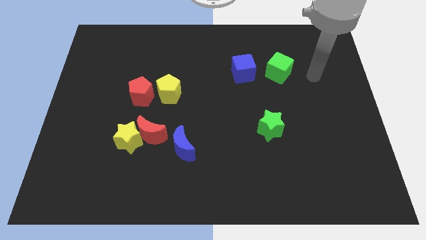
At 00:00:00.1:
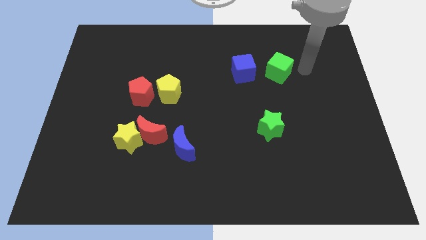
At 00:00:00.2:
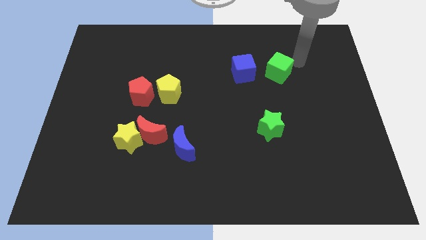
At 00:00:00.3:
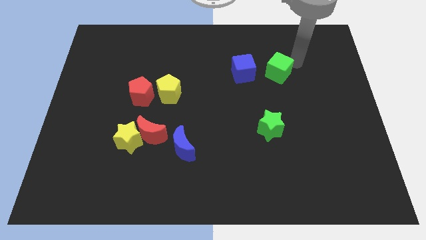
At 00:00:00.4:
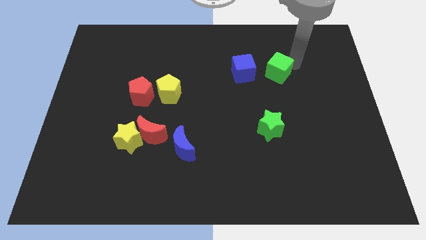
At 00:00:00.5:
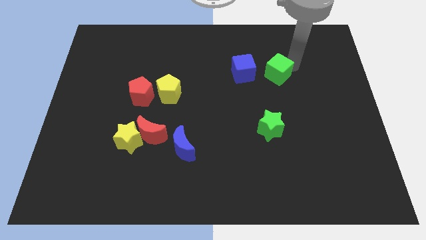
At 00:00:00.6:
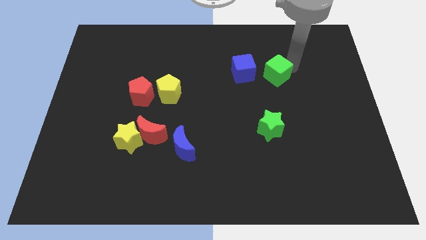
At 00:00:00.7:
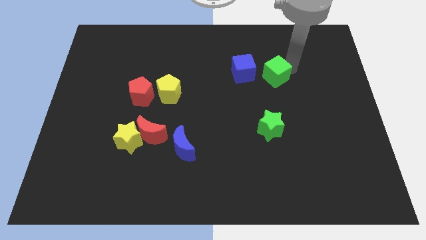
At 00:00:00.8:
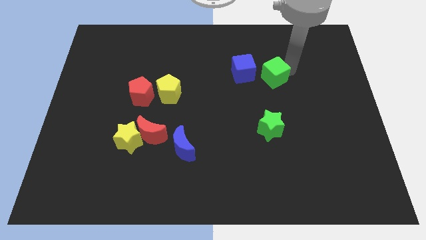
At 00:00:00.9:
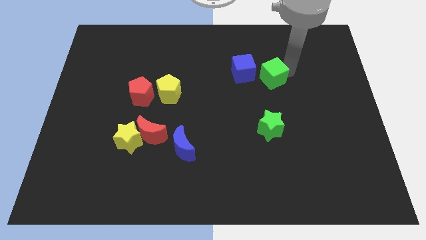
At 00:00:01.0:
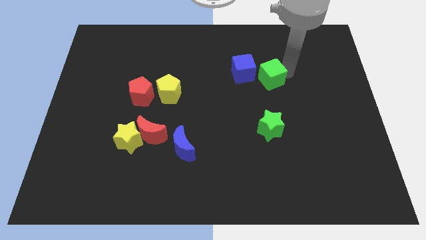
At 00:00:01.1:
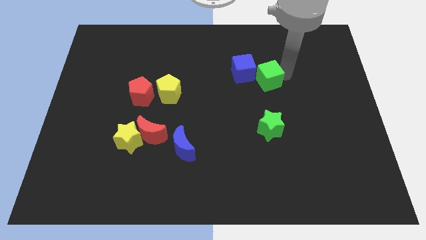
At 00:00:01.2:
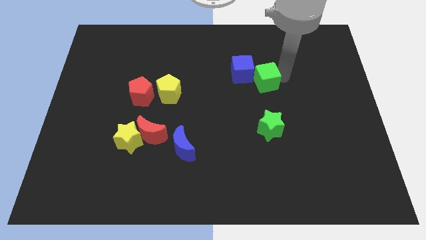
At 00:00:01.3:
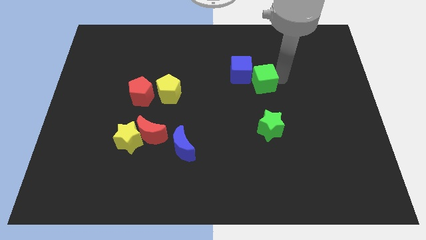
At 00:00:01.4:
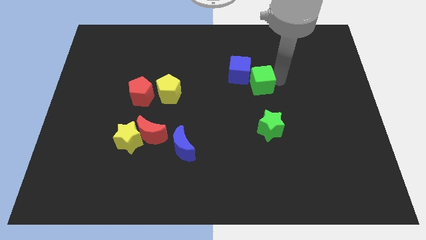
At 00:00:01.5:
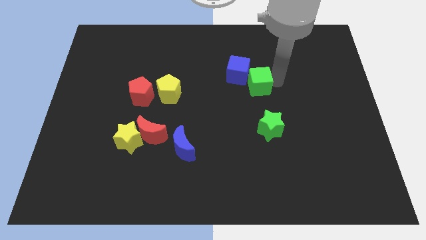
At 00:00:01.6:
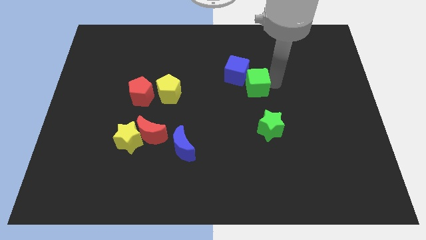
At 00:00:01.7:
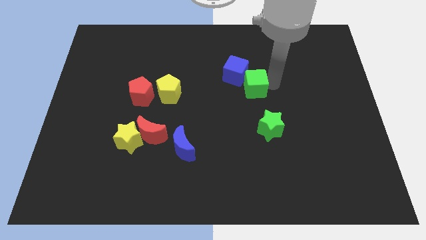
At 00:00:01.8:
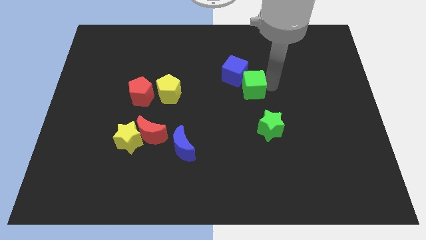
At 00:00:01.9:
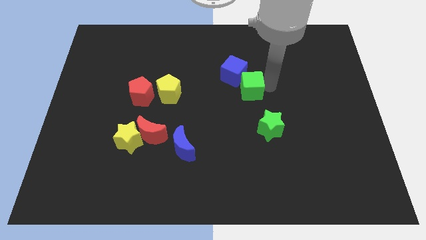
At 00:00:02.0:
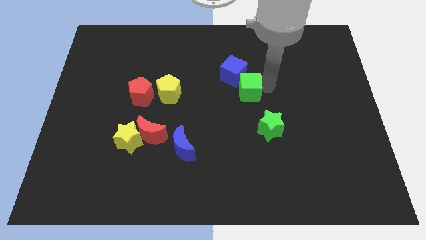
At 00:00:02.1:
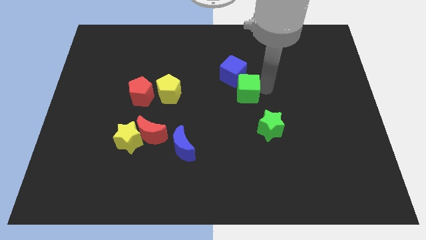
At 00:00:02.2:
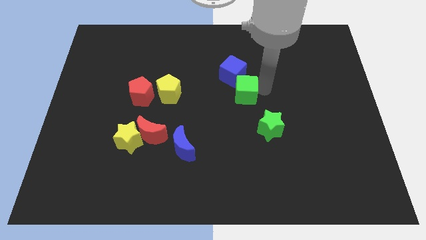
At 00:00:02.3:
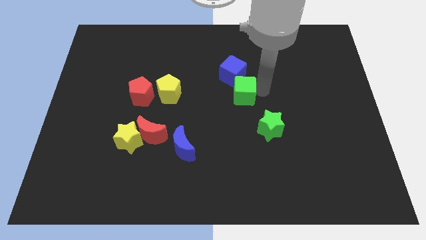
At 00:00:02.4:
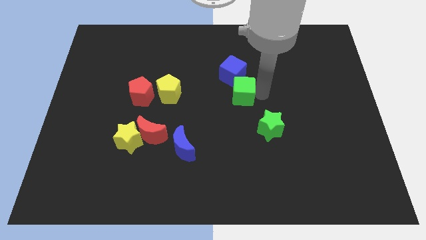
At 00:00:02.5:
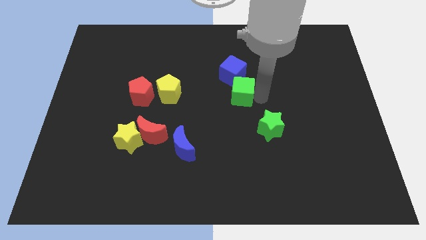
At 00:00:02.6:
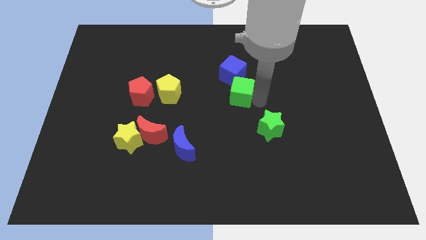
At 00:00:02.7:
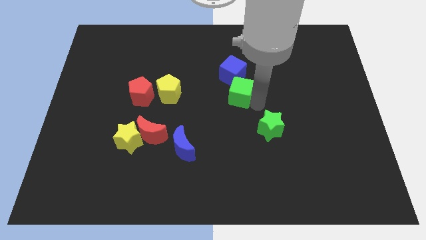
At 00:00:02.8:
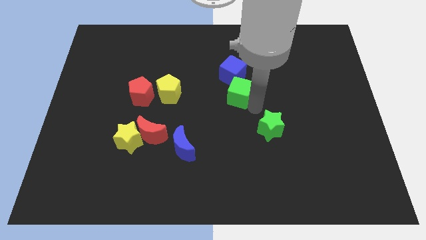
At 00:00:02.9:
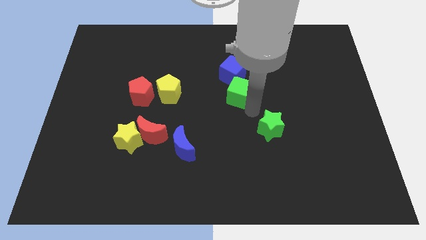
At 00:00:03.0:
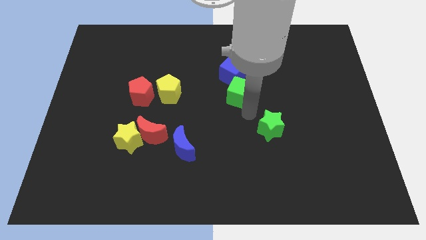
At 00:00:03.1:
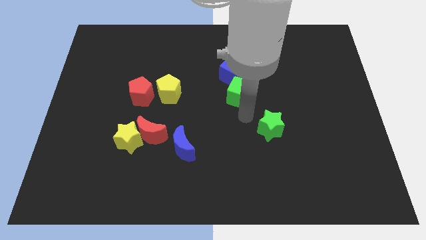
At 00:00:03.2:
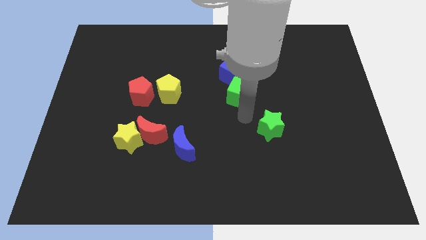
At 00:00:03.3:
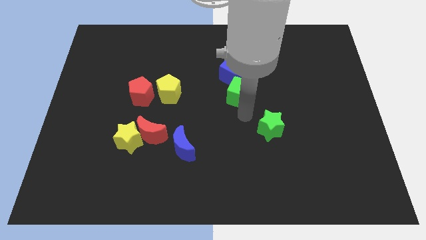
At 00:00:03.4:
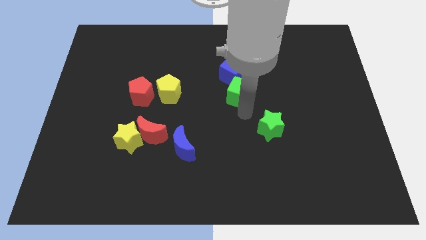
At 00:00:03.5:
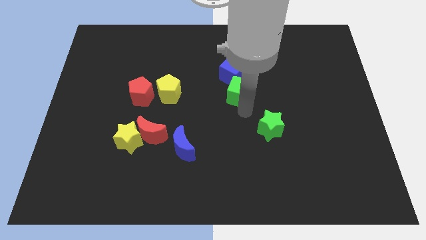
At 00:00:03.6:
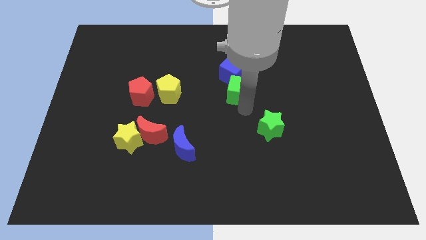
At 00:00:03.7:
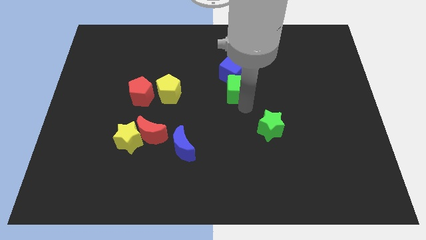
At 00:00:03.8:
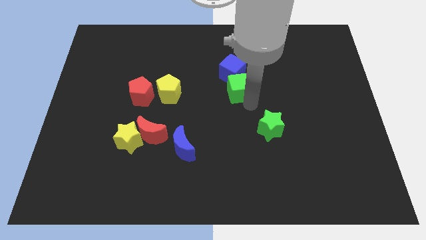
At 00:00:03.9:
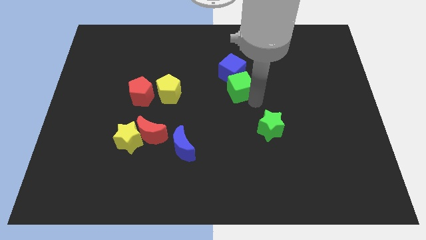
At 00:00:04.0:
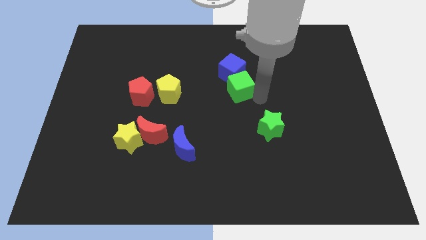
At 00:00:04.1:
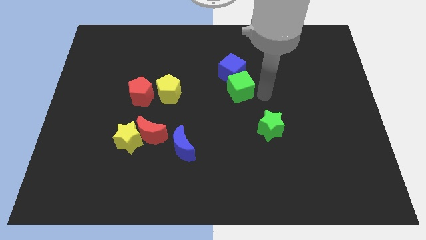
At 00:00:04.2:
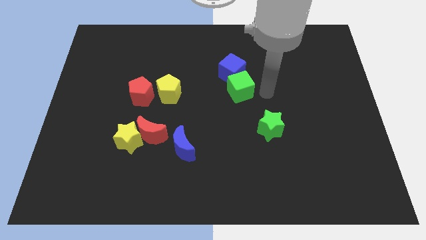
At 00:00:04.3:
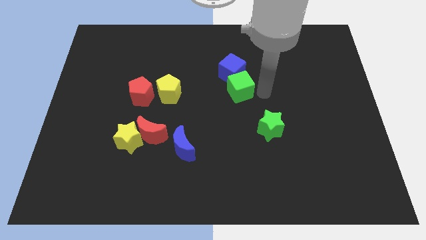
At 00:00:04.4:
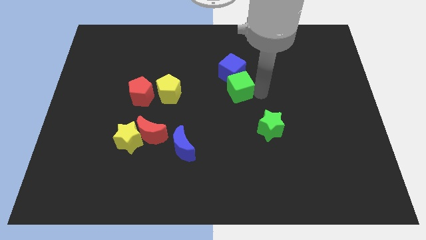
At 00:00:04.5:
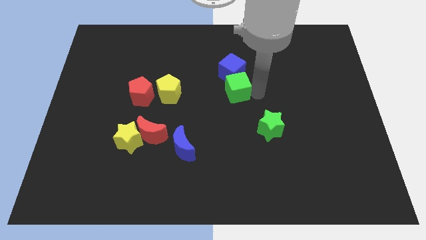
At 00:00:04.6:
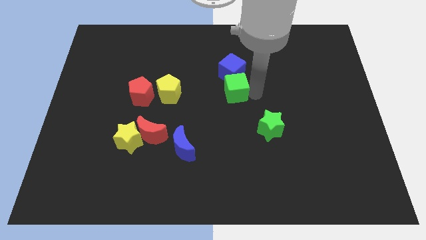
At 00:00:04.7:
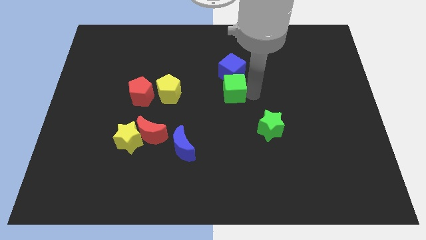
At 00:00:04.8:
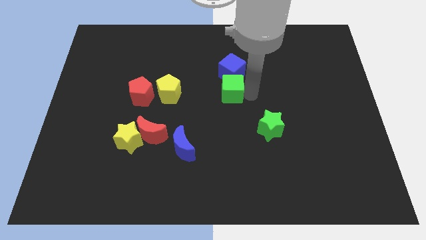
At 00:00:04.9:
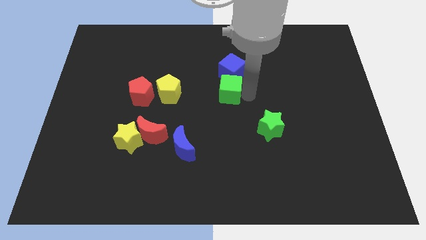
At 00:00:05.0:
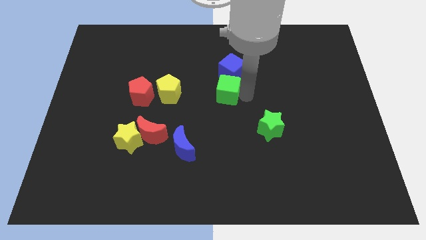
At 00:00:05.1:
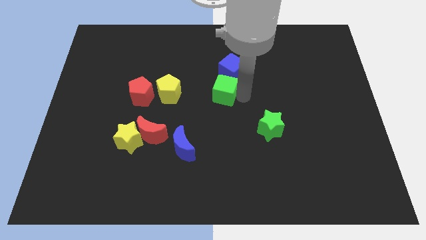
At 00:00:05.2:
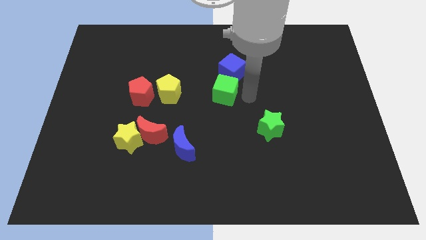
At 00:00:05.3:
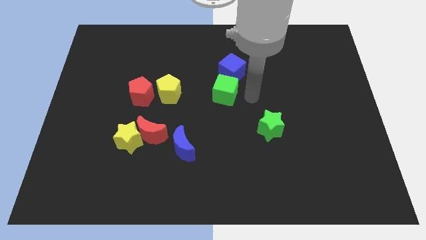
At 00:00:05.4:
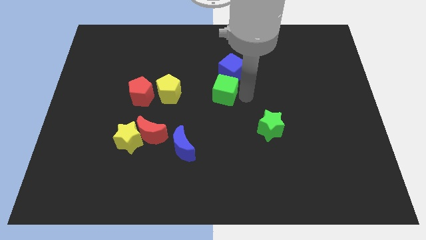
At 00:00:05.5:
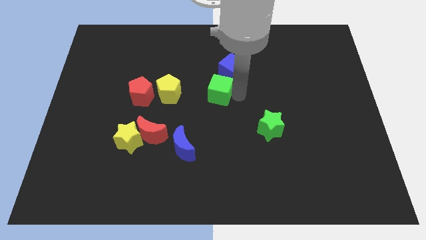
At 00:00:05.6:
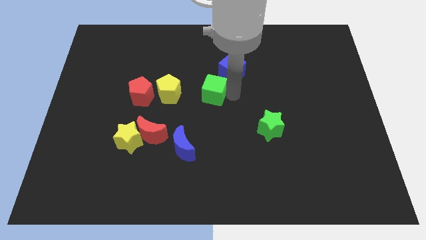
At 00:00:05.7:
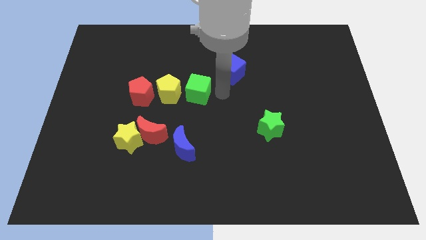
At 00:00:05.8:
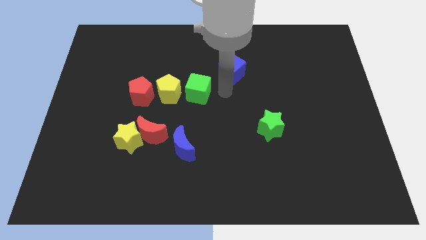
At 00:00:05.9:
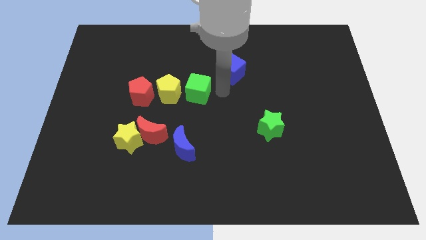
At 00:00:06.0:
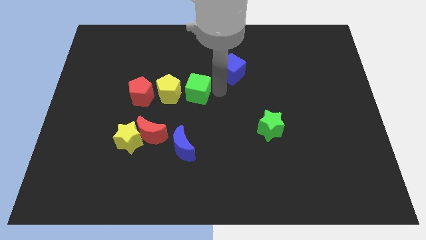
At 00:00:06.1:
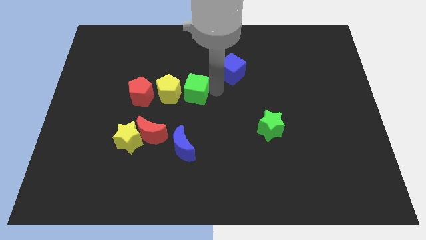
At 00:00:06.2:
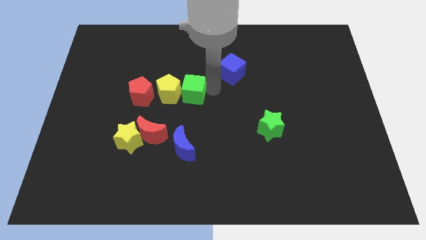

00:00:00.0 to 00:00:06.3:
put the green cube close to the yellow pentagon
